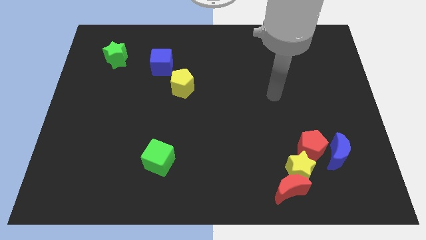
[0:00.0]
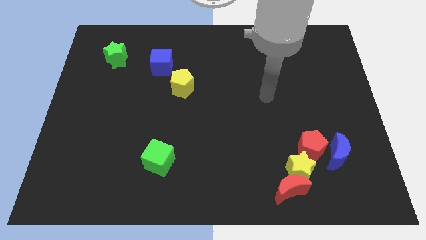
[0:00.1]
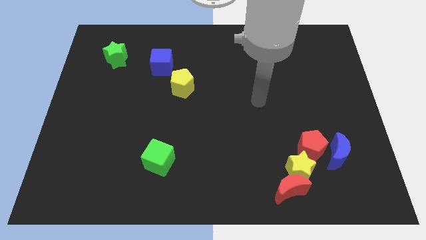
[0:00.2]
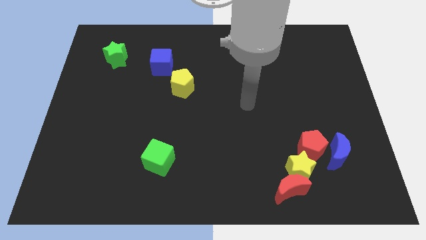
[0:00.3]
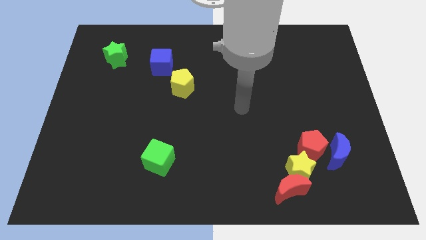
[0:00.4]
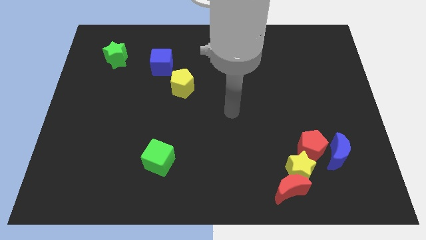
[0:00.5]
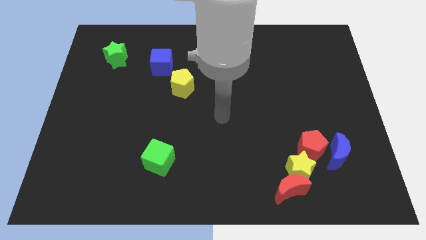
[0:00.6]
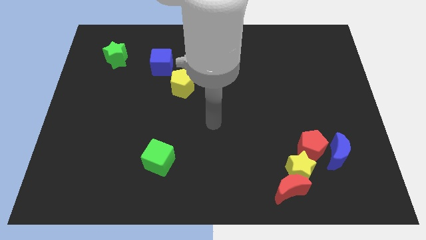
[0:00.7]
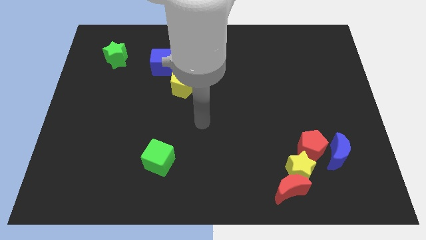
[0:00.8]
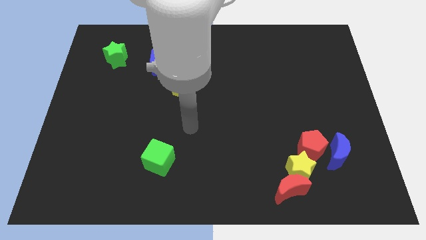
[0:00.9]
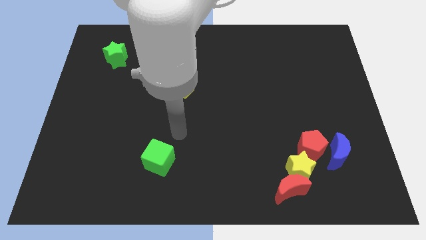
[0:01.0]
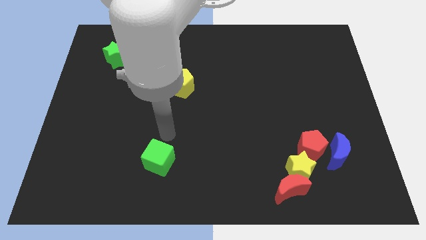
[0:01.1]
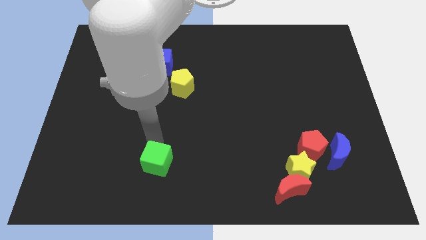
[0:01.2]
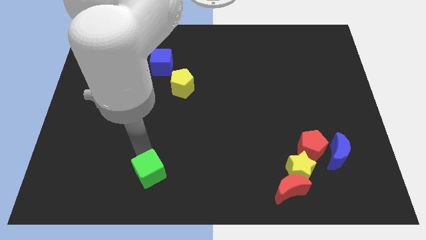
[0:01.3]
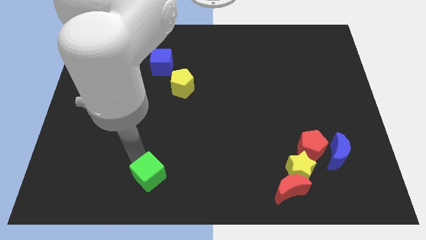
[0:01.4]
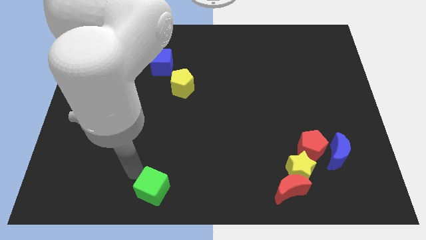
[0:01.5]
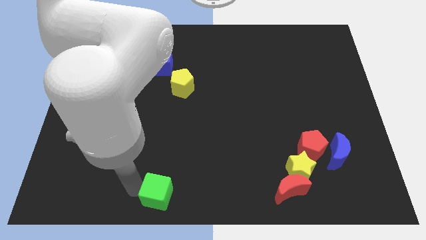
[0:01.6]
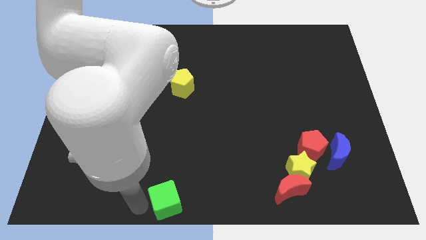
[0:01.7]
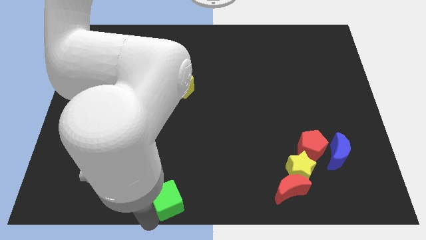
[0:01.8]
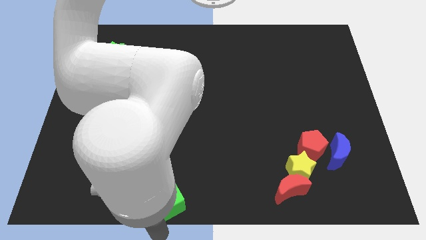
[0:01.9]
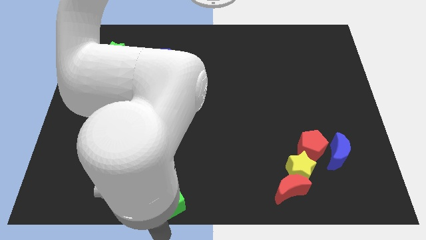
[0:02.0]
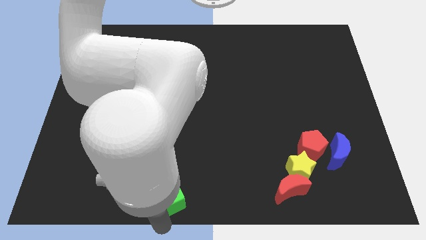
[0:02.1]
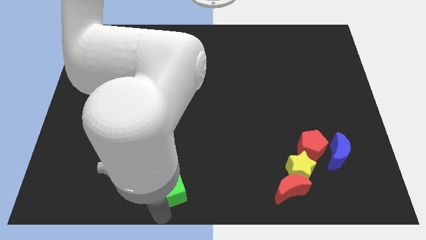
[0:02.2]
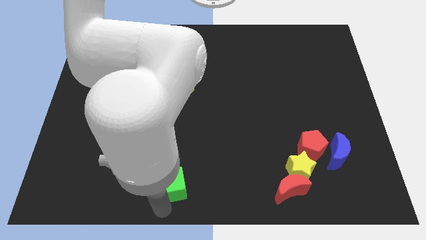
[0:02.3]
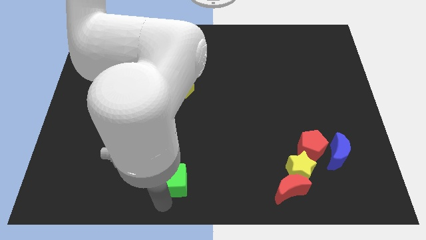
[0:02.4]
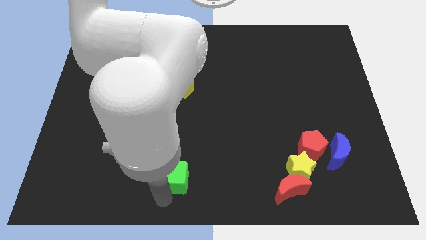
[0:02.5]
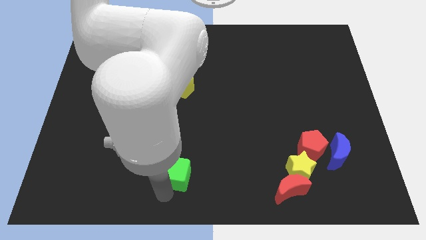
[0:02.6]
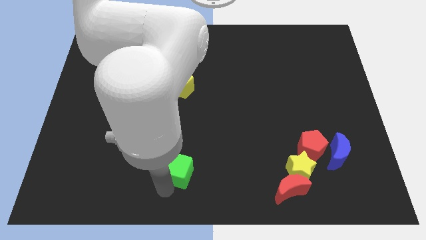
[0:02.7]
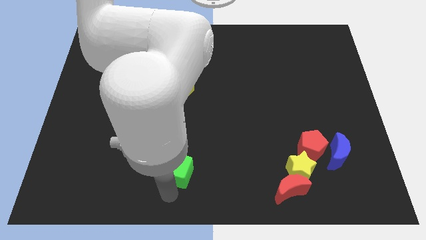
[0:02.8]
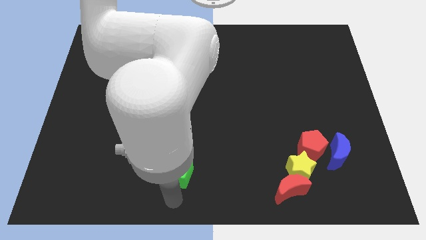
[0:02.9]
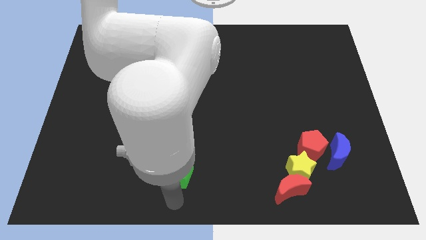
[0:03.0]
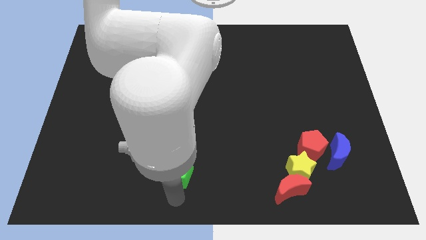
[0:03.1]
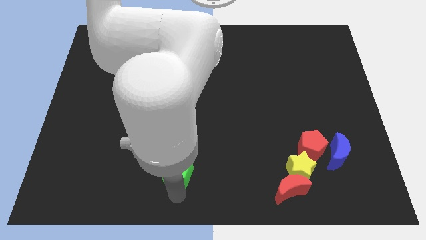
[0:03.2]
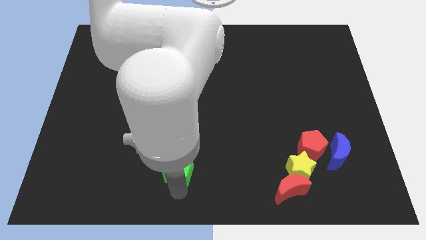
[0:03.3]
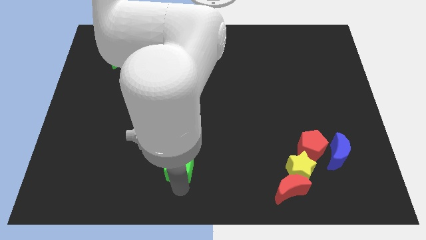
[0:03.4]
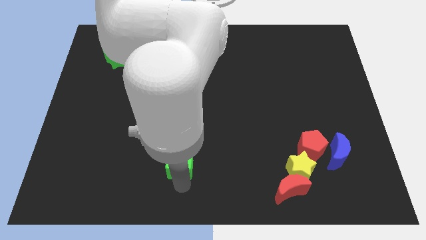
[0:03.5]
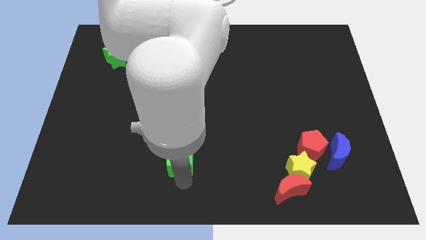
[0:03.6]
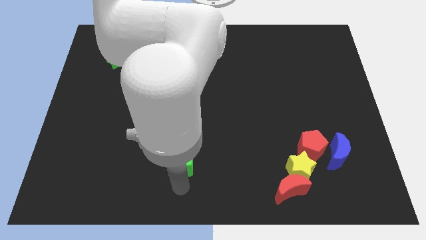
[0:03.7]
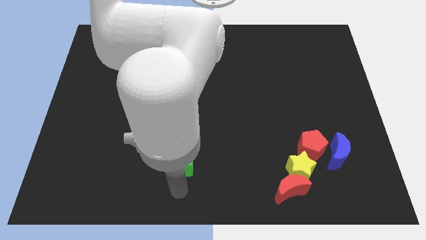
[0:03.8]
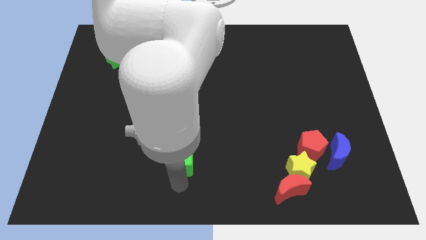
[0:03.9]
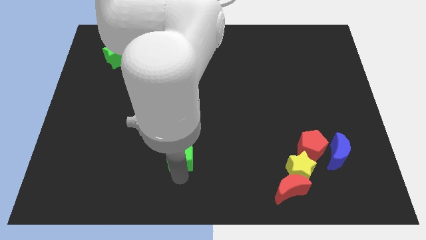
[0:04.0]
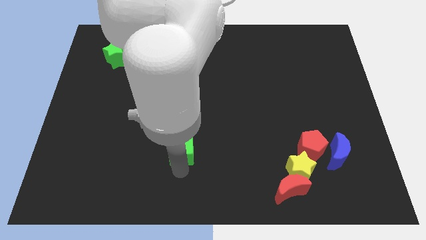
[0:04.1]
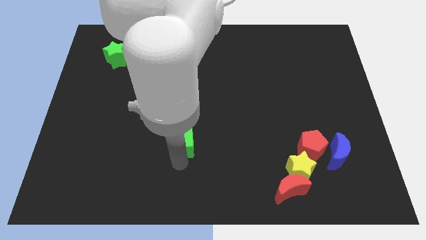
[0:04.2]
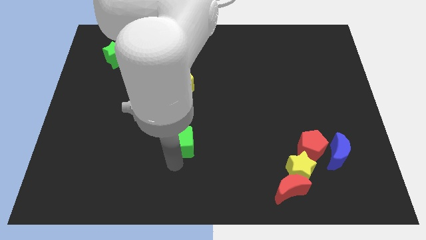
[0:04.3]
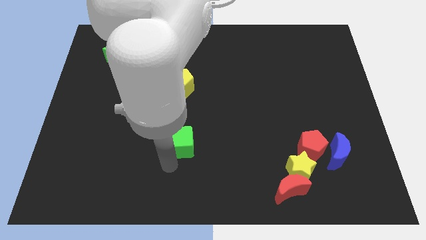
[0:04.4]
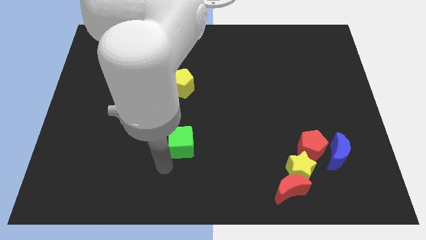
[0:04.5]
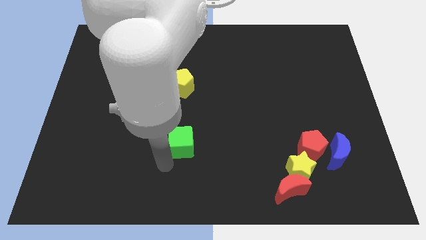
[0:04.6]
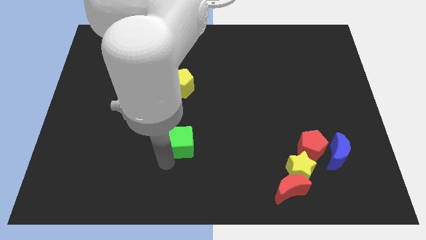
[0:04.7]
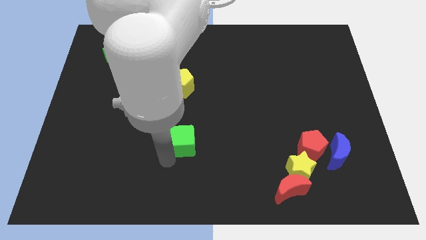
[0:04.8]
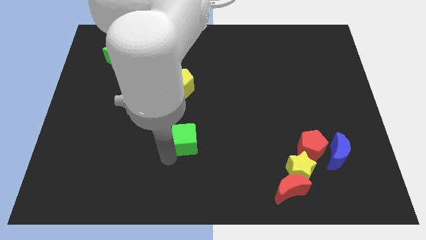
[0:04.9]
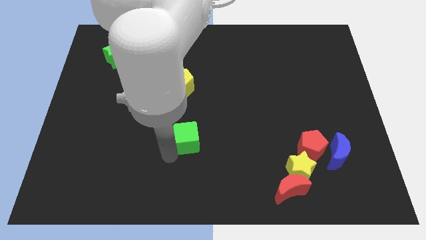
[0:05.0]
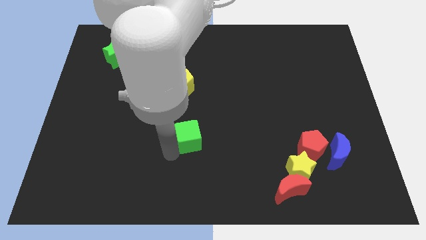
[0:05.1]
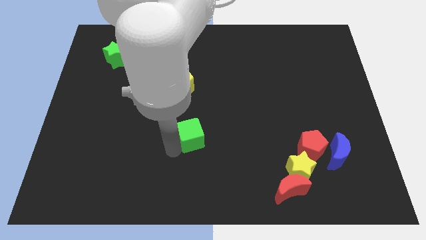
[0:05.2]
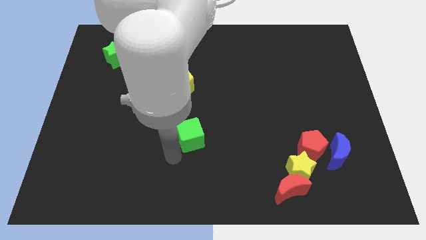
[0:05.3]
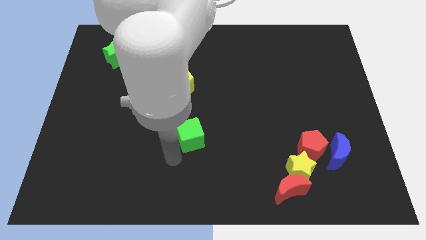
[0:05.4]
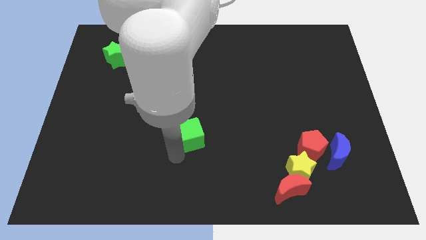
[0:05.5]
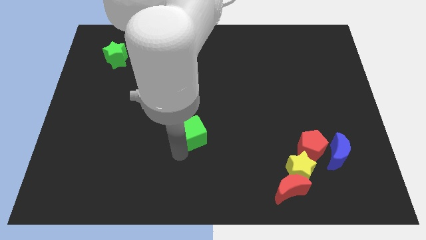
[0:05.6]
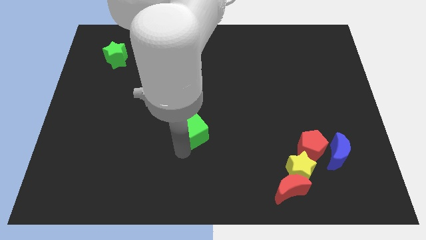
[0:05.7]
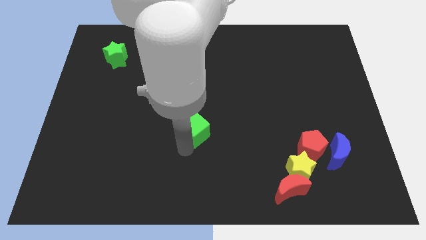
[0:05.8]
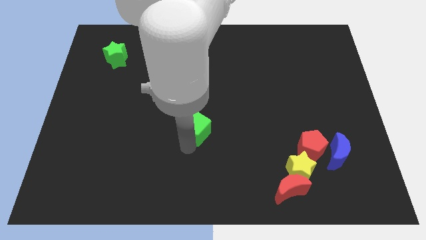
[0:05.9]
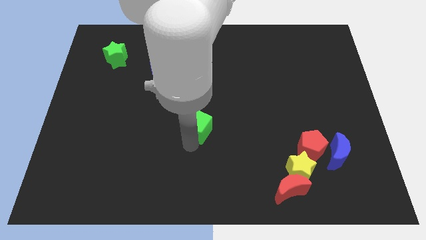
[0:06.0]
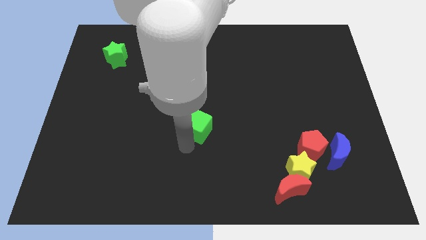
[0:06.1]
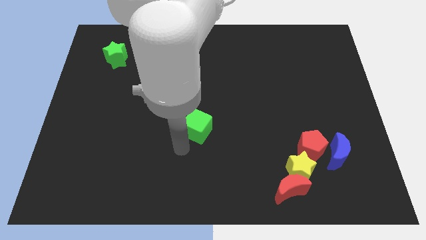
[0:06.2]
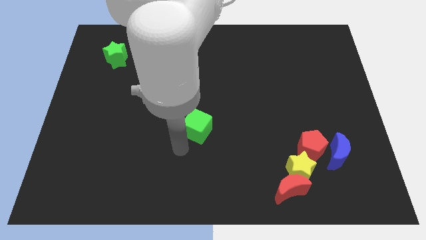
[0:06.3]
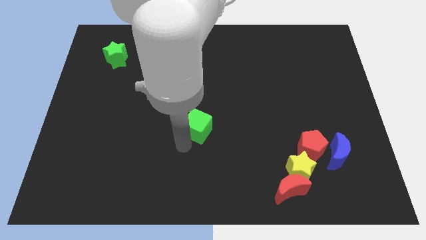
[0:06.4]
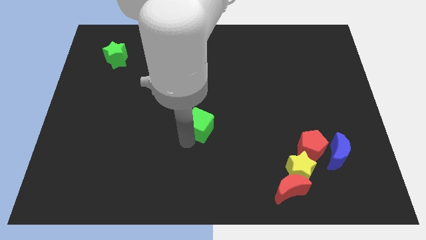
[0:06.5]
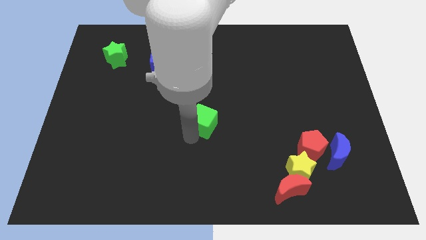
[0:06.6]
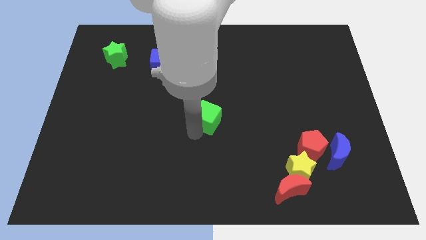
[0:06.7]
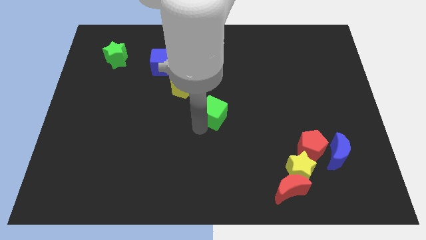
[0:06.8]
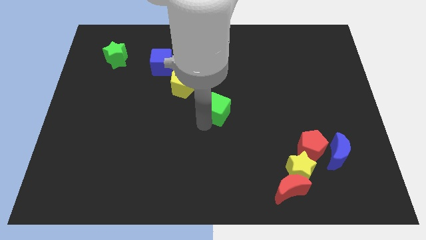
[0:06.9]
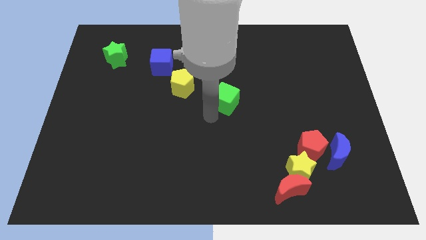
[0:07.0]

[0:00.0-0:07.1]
move the green cube up and to the right diagonally

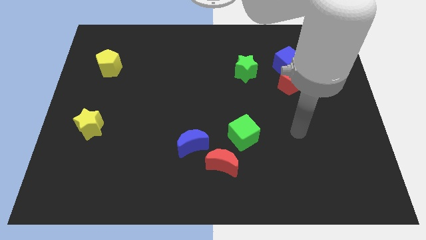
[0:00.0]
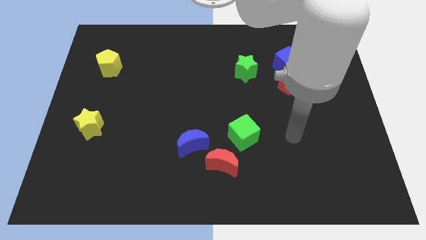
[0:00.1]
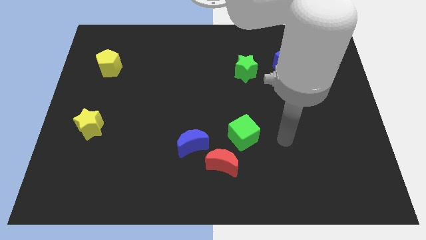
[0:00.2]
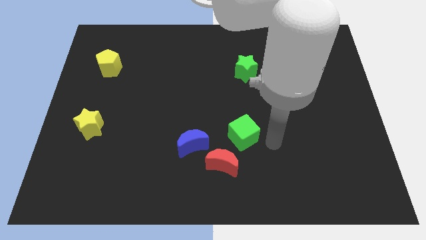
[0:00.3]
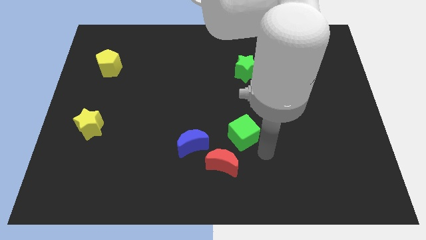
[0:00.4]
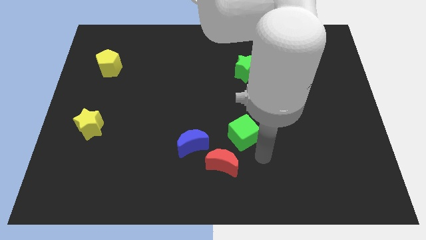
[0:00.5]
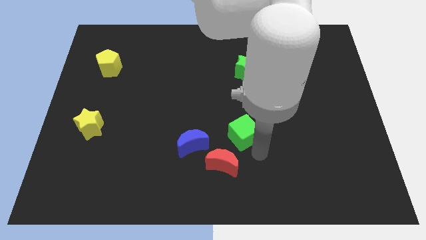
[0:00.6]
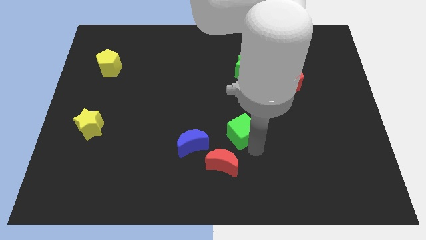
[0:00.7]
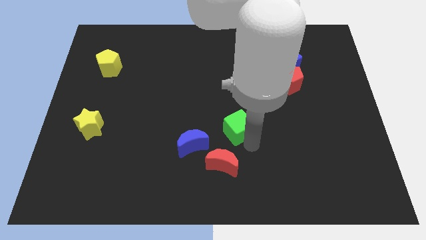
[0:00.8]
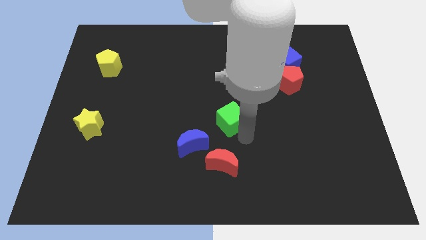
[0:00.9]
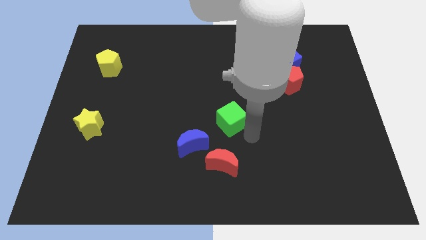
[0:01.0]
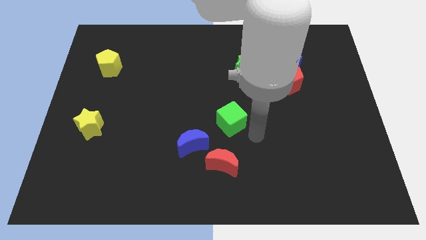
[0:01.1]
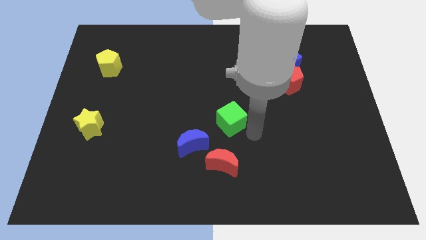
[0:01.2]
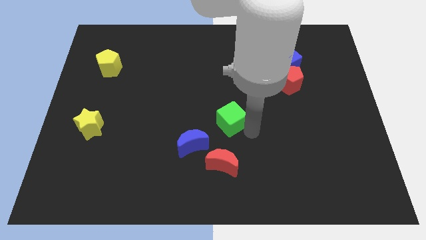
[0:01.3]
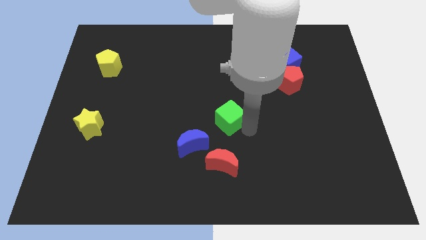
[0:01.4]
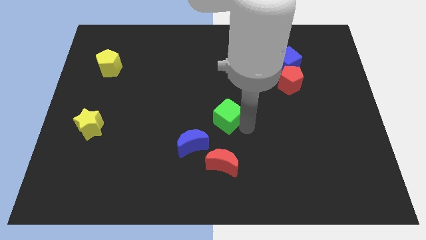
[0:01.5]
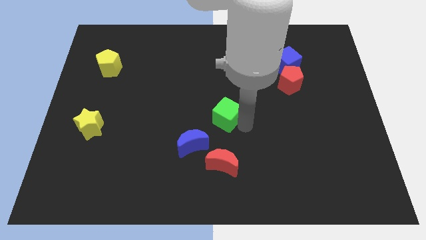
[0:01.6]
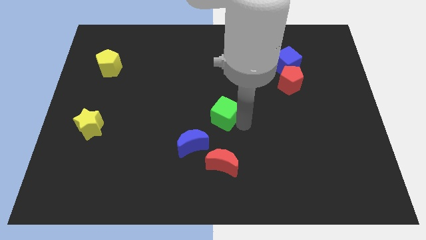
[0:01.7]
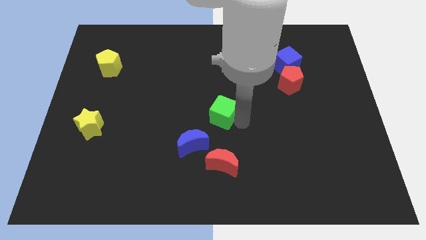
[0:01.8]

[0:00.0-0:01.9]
slightly move the green cube diagonally up and left
